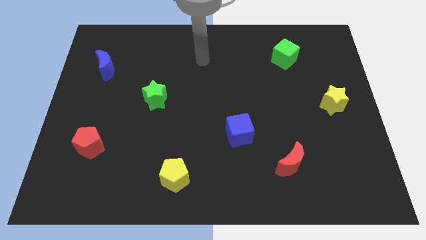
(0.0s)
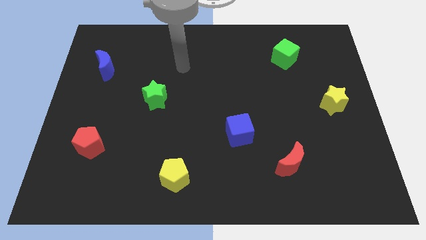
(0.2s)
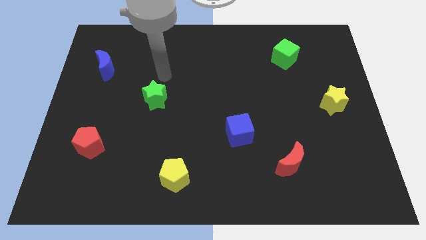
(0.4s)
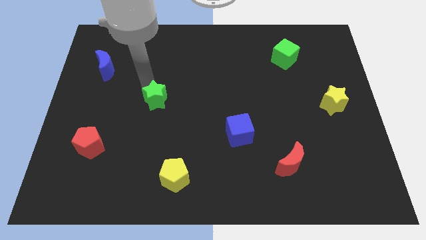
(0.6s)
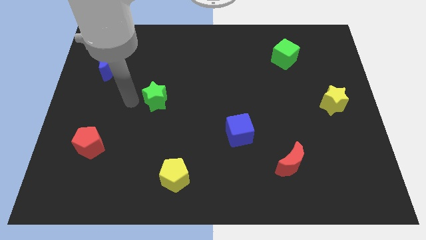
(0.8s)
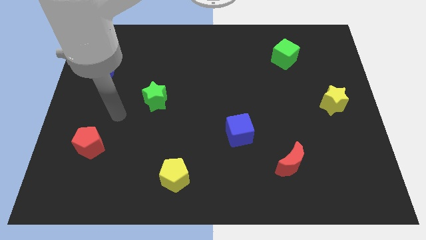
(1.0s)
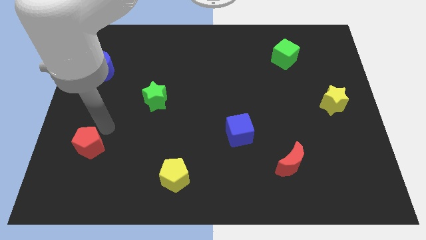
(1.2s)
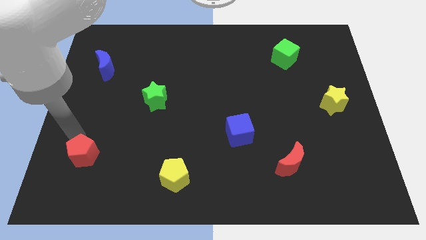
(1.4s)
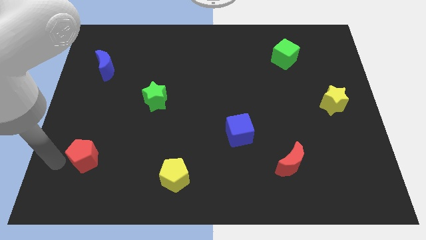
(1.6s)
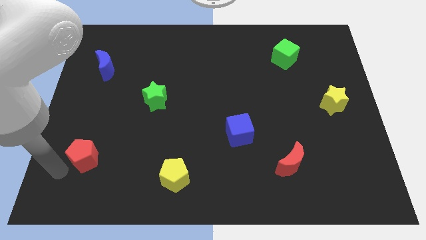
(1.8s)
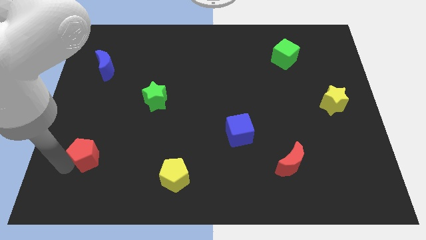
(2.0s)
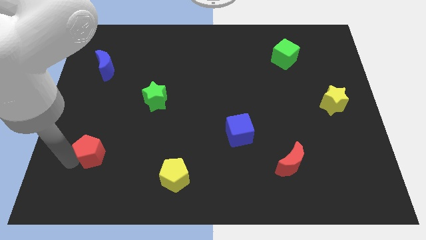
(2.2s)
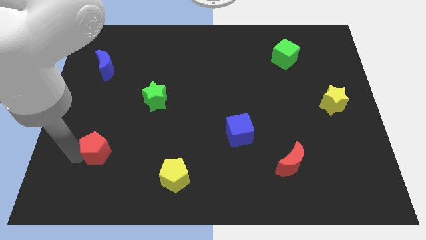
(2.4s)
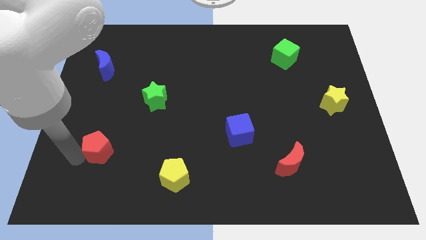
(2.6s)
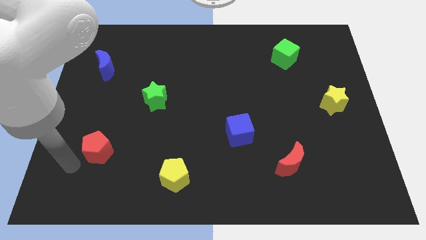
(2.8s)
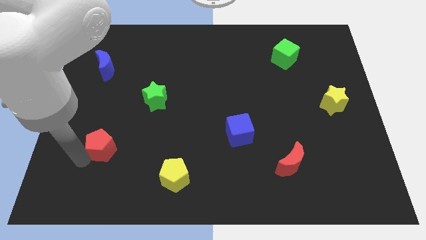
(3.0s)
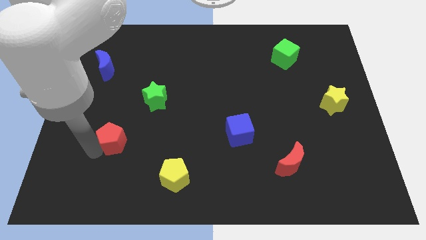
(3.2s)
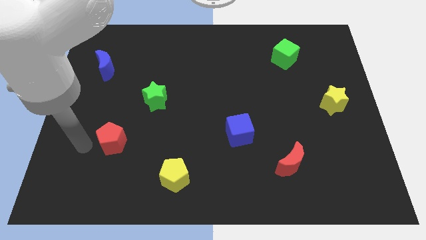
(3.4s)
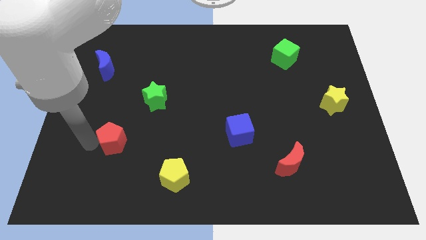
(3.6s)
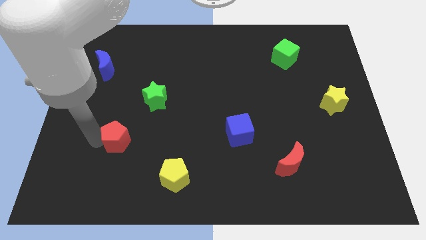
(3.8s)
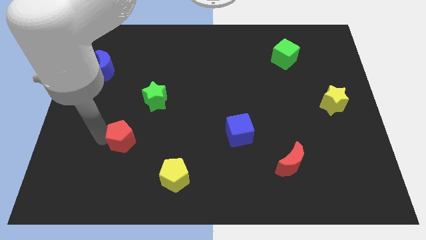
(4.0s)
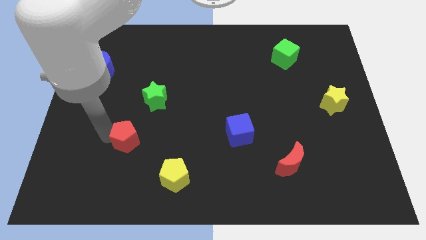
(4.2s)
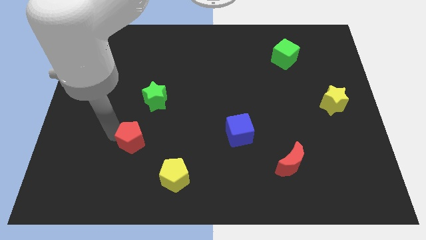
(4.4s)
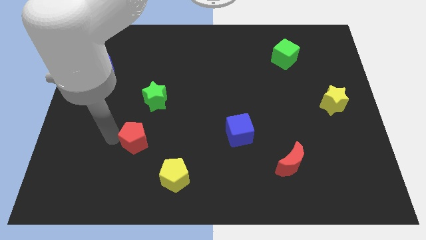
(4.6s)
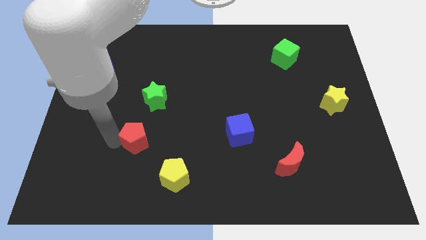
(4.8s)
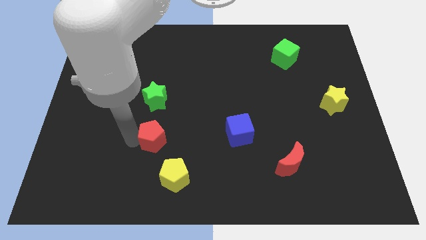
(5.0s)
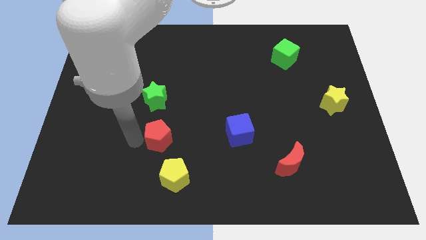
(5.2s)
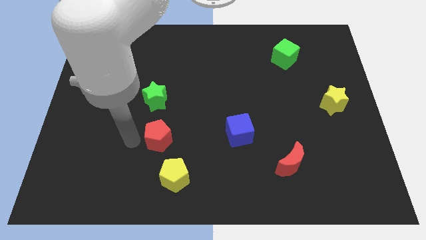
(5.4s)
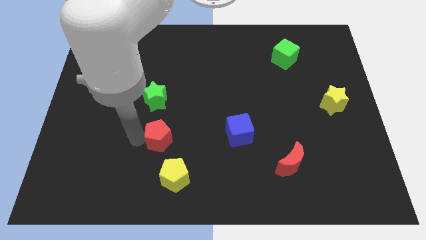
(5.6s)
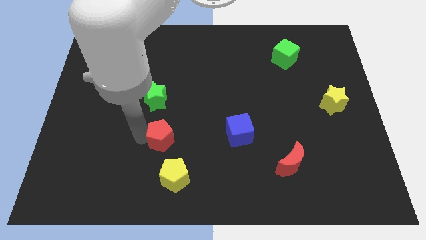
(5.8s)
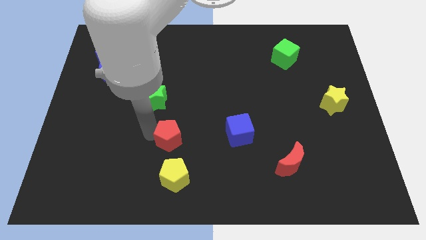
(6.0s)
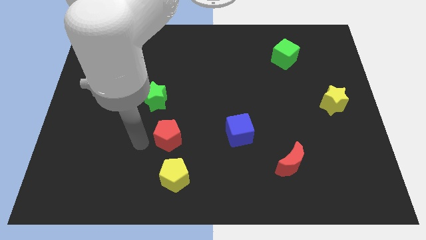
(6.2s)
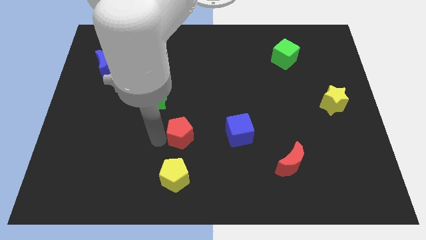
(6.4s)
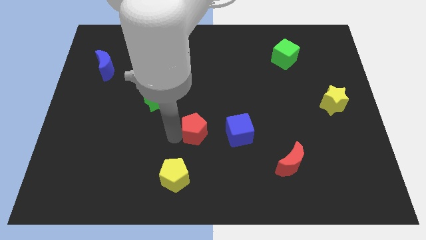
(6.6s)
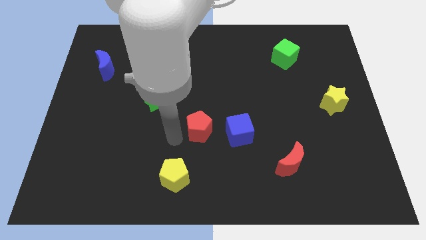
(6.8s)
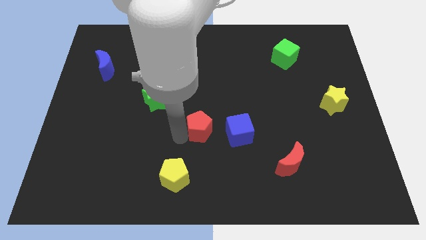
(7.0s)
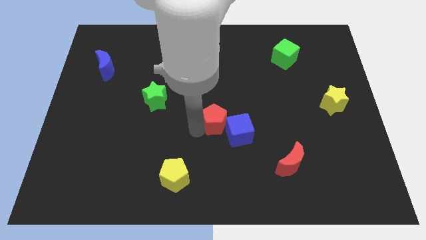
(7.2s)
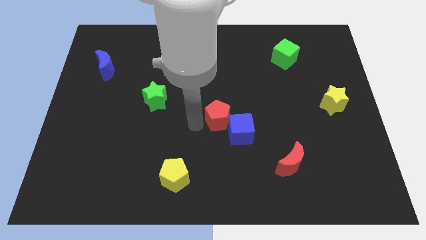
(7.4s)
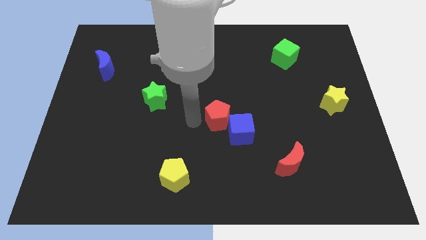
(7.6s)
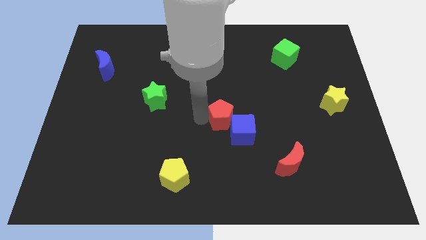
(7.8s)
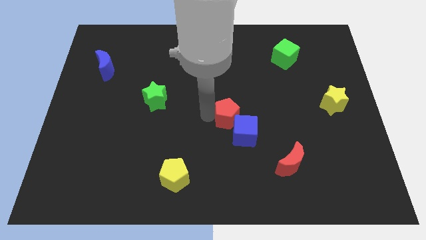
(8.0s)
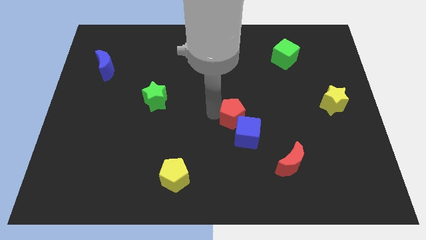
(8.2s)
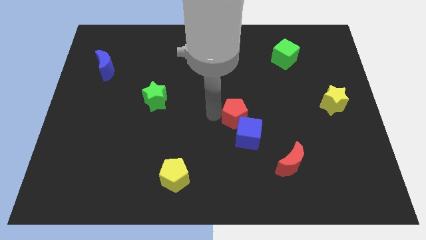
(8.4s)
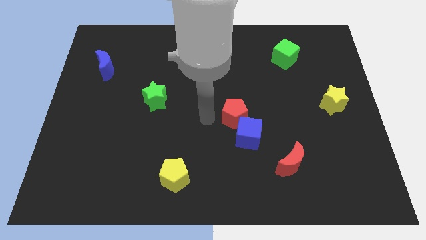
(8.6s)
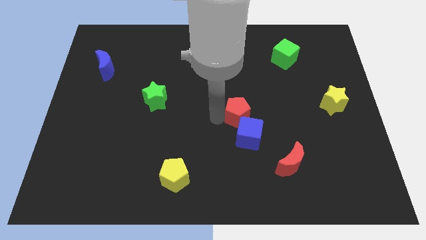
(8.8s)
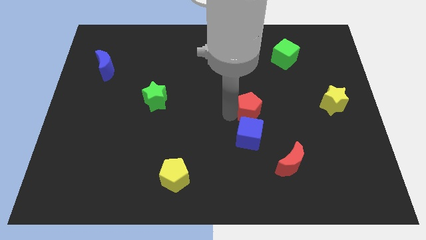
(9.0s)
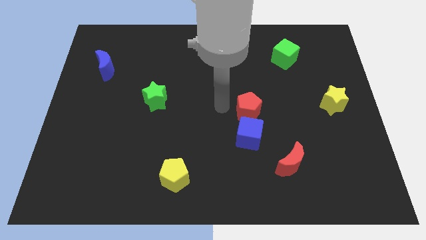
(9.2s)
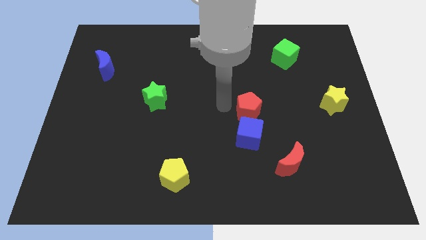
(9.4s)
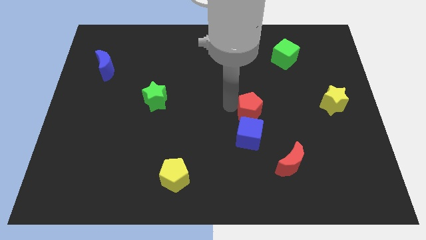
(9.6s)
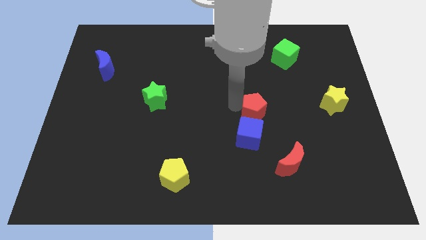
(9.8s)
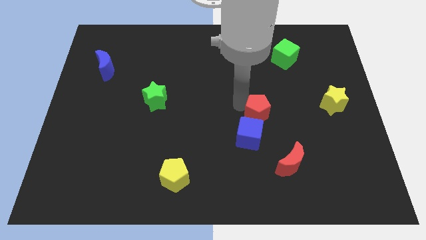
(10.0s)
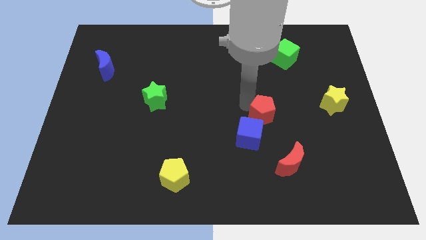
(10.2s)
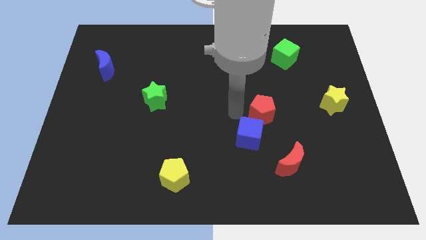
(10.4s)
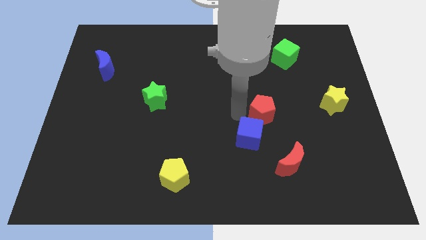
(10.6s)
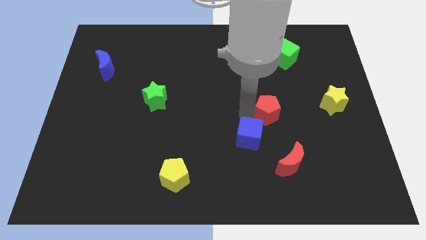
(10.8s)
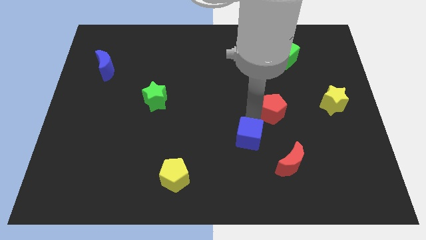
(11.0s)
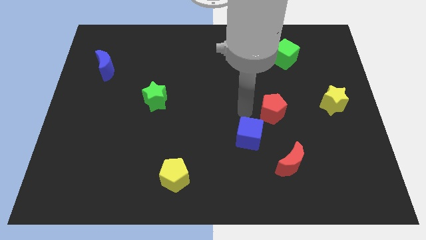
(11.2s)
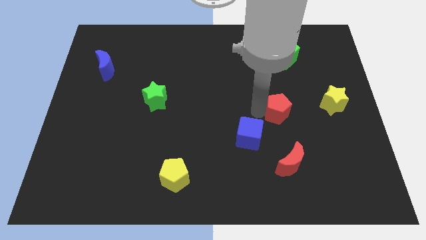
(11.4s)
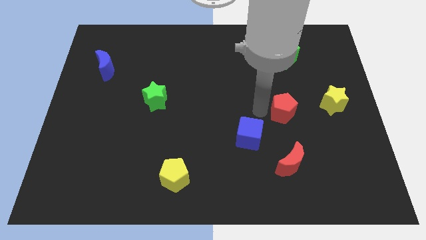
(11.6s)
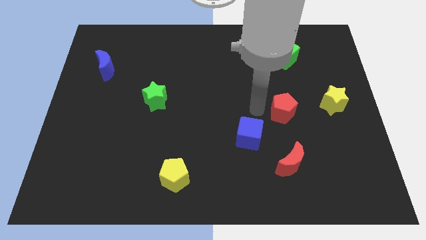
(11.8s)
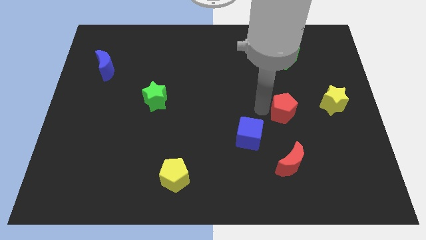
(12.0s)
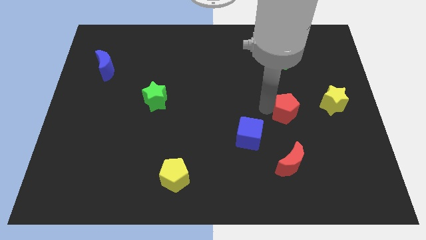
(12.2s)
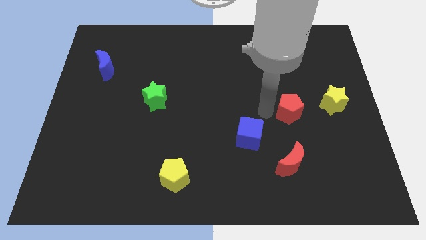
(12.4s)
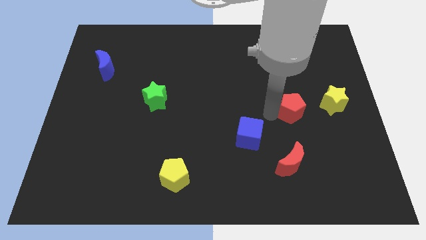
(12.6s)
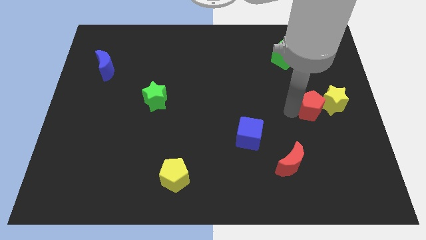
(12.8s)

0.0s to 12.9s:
move the red pentagon close to the yellow star

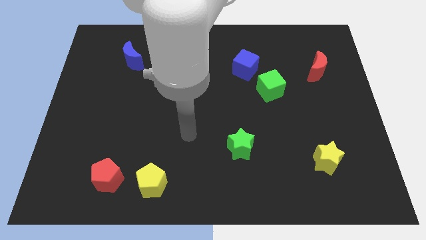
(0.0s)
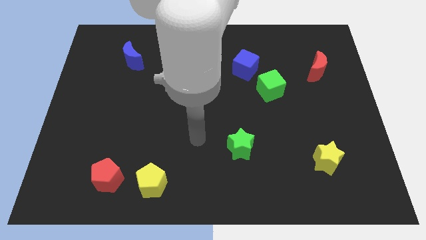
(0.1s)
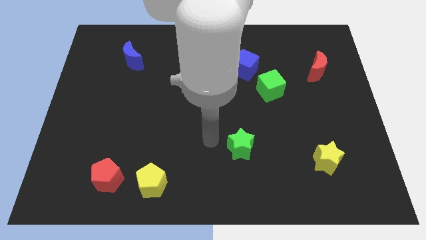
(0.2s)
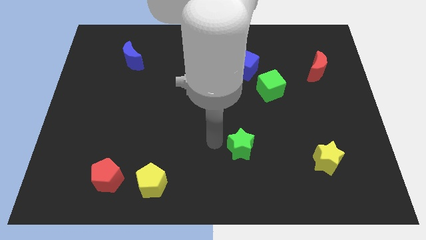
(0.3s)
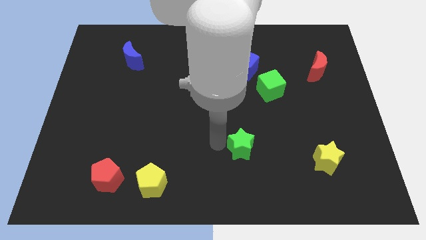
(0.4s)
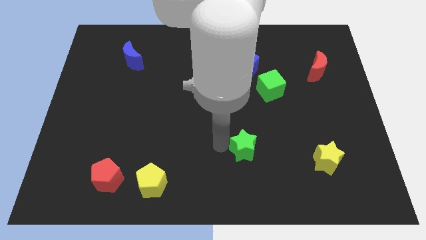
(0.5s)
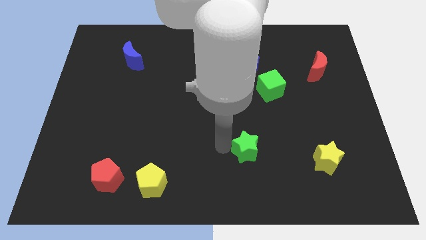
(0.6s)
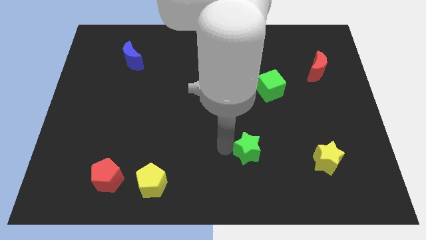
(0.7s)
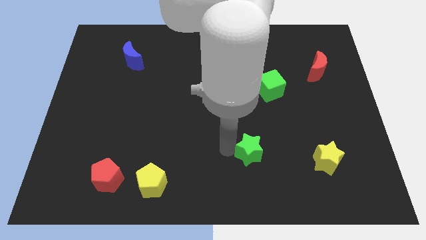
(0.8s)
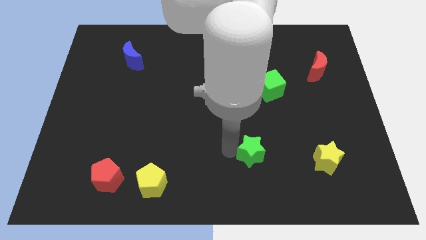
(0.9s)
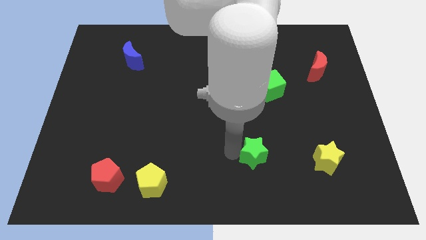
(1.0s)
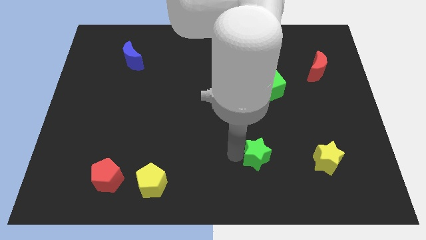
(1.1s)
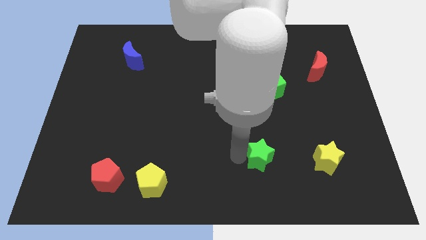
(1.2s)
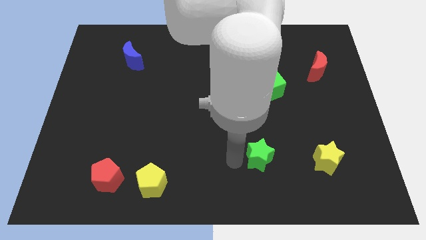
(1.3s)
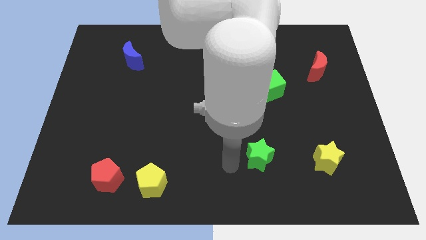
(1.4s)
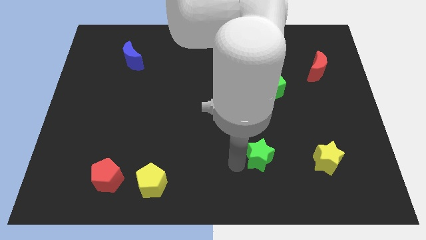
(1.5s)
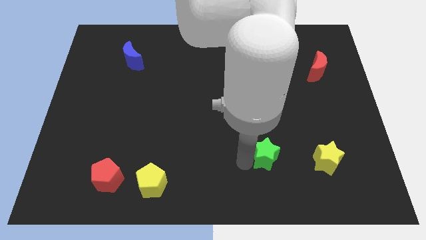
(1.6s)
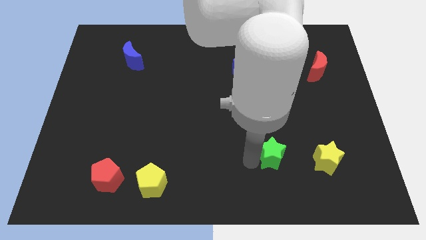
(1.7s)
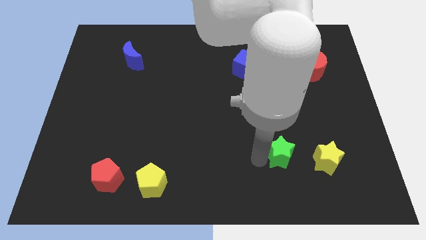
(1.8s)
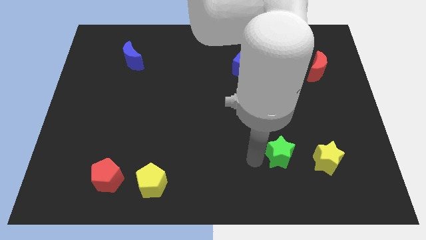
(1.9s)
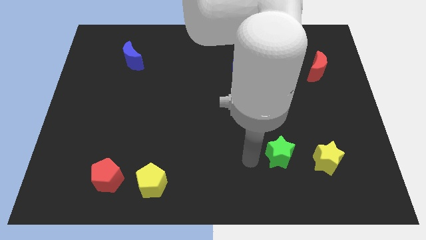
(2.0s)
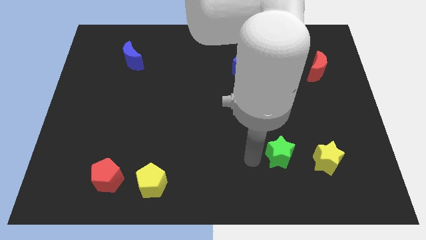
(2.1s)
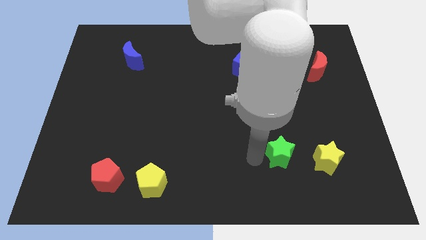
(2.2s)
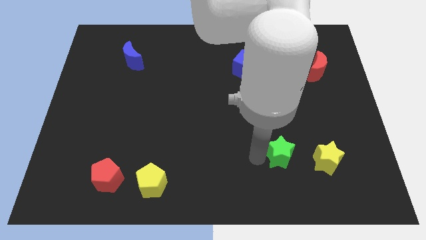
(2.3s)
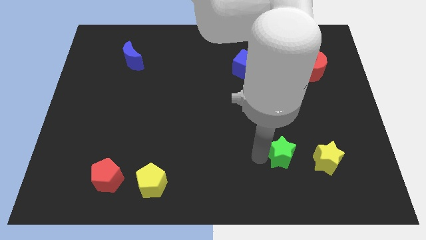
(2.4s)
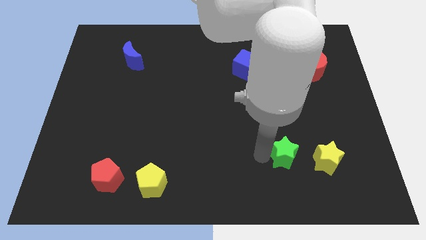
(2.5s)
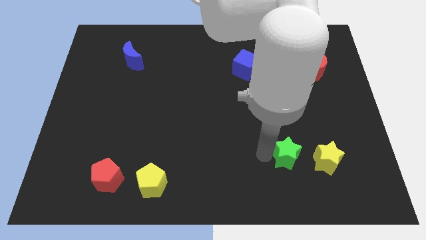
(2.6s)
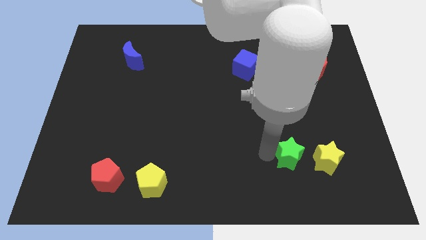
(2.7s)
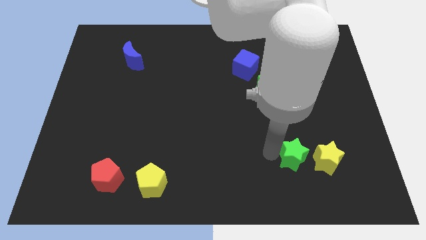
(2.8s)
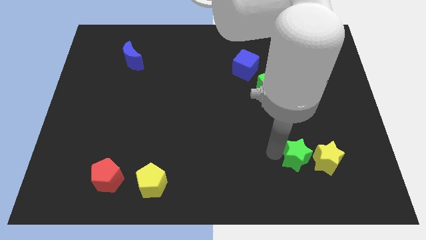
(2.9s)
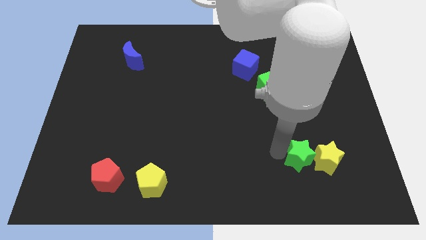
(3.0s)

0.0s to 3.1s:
slide the green star next to the yellow star
